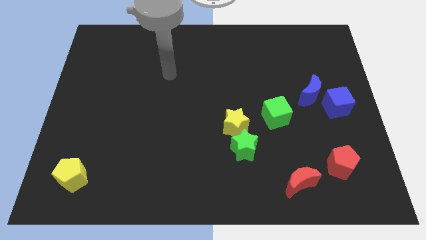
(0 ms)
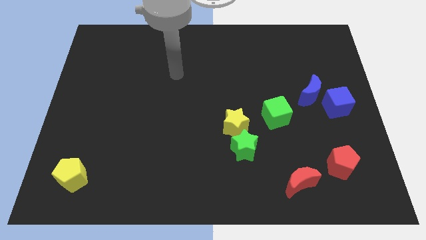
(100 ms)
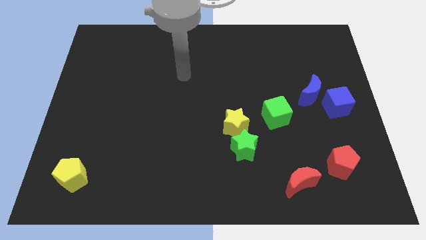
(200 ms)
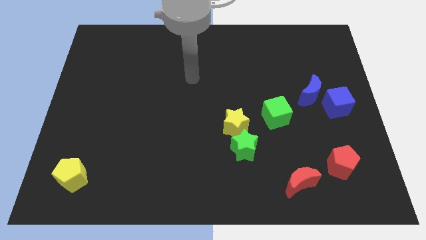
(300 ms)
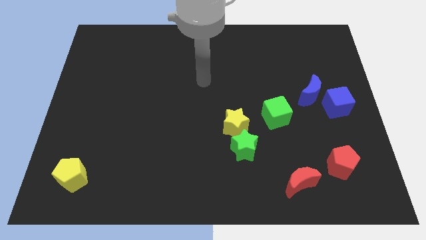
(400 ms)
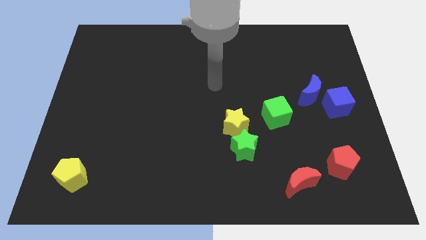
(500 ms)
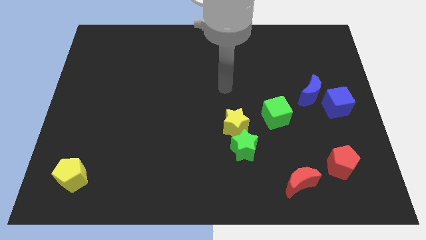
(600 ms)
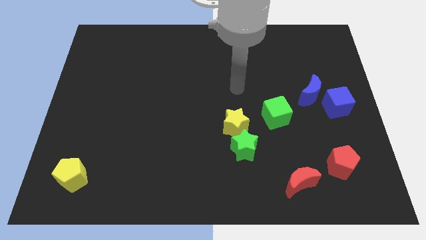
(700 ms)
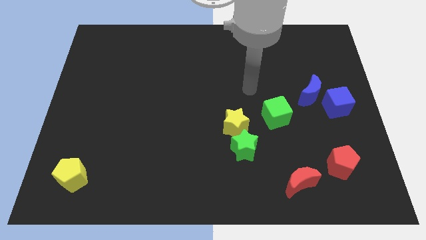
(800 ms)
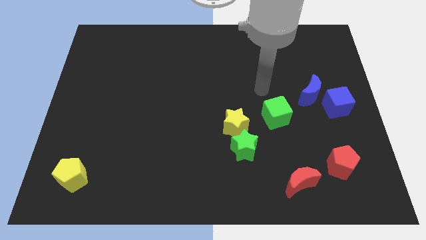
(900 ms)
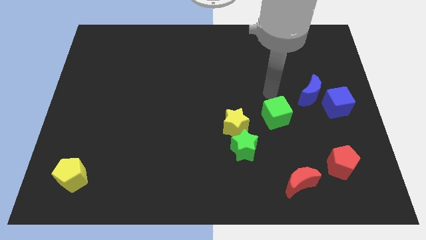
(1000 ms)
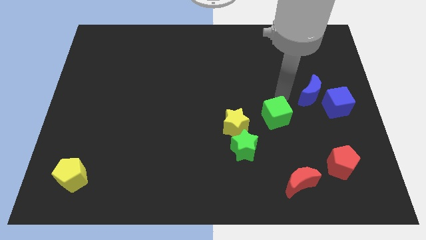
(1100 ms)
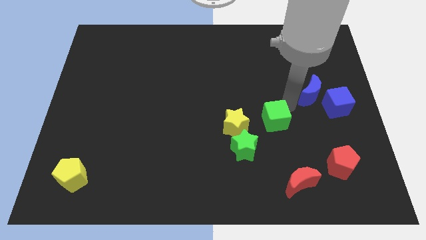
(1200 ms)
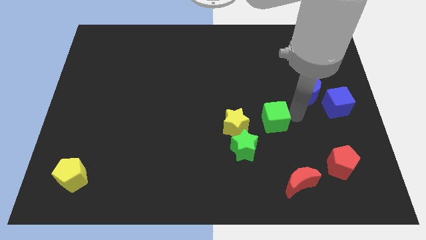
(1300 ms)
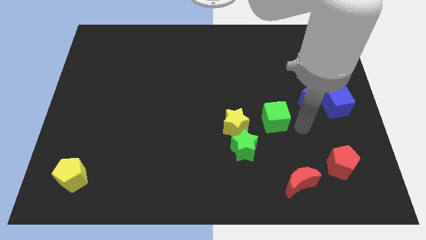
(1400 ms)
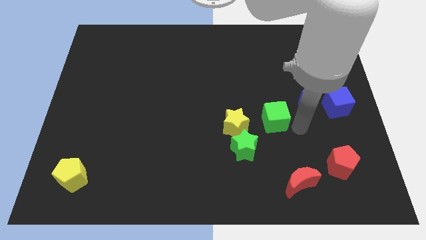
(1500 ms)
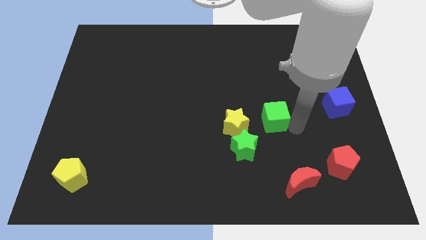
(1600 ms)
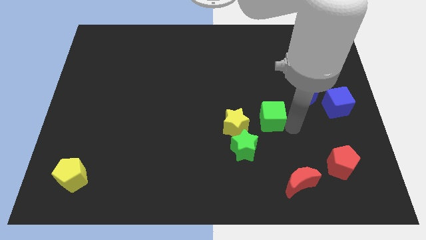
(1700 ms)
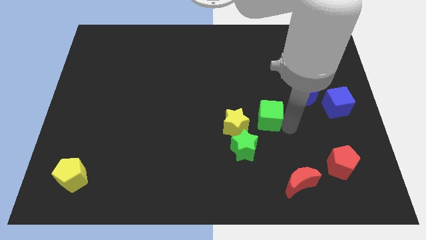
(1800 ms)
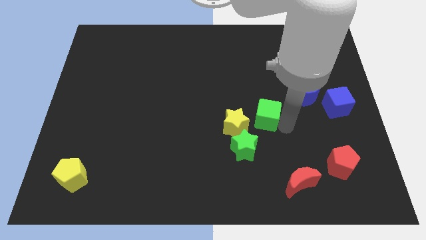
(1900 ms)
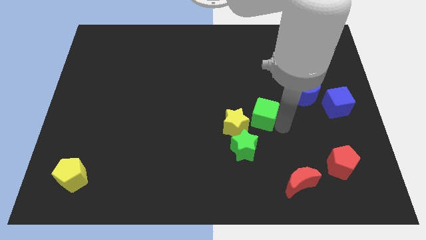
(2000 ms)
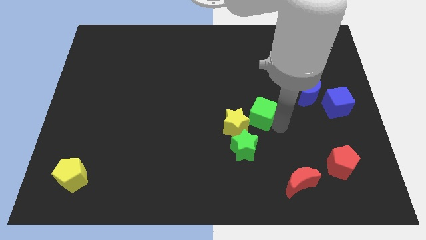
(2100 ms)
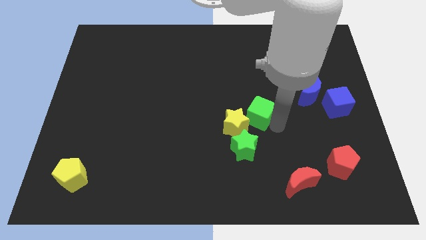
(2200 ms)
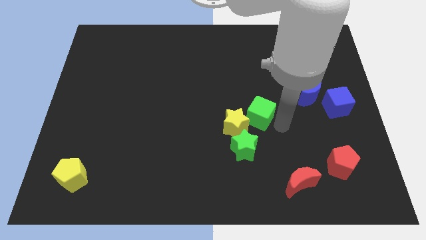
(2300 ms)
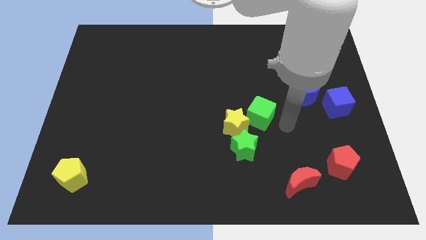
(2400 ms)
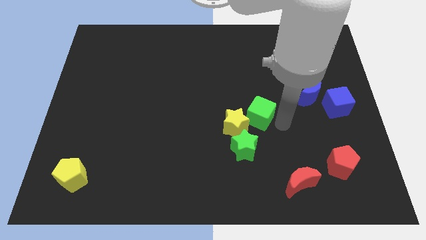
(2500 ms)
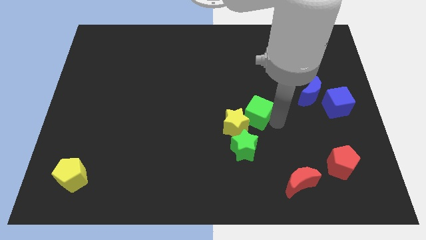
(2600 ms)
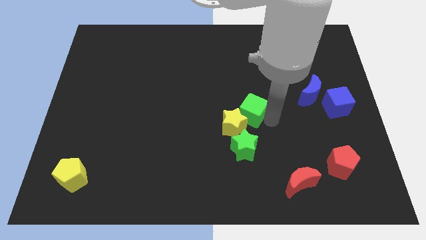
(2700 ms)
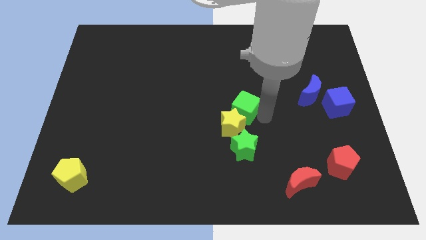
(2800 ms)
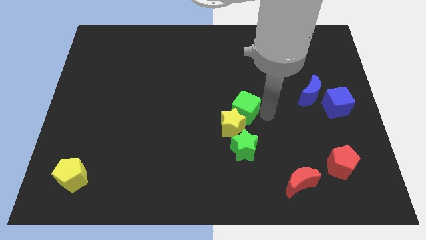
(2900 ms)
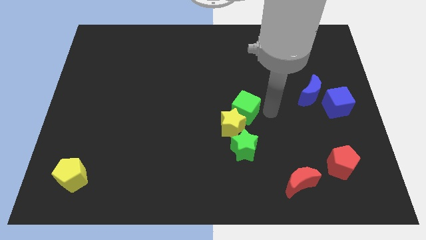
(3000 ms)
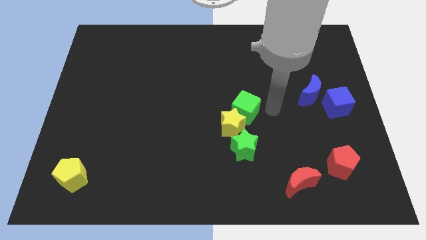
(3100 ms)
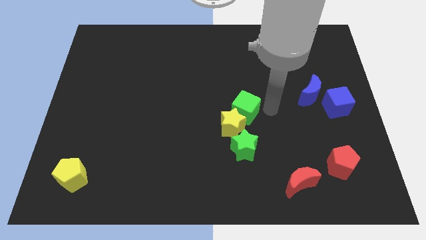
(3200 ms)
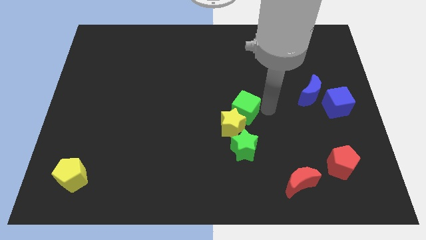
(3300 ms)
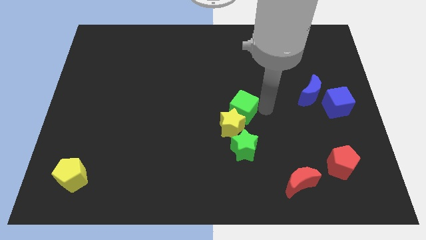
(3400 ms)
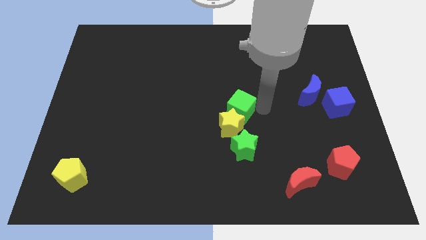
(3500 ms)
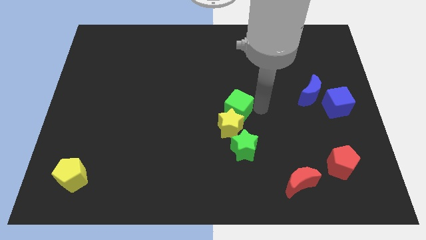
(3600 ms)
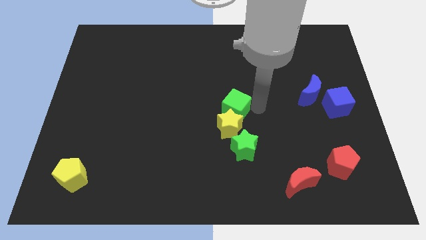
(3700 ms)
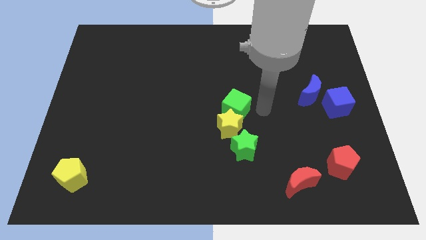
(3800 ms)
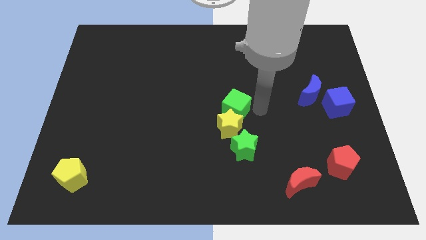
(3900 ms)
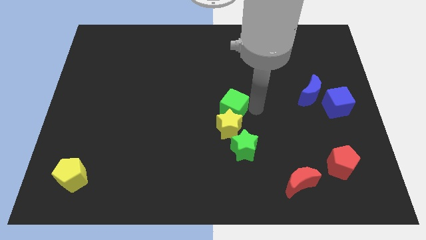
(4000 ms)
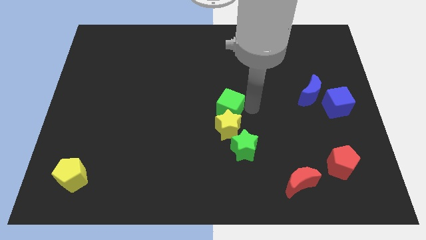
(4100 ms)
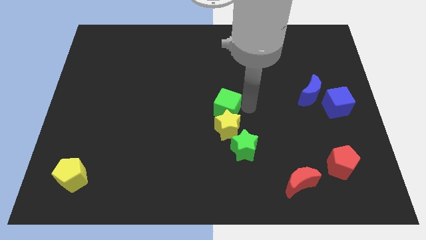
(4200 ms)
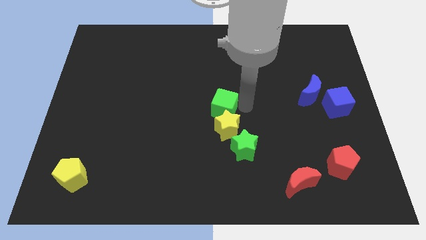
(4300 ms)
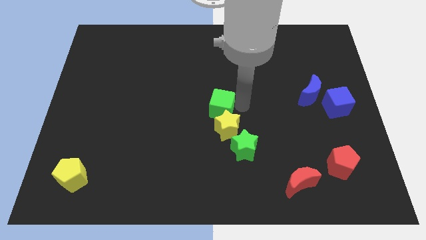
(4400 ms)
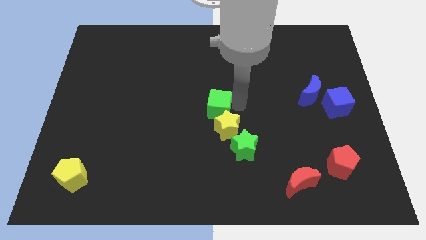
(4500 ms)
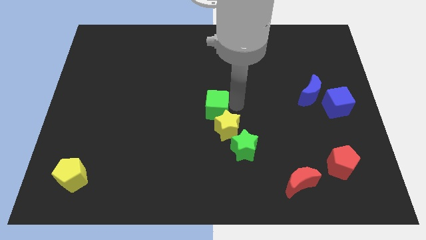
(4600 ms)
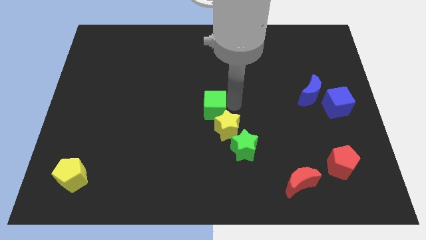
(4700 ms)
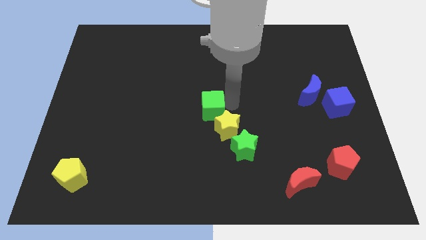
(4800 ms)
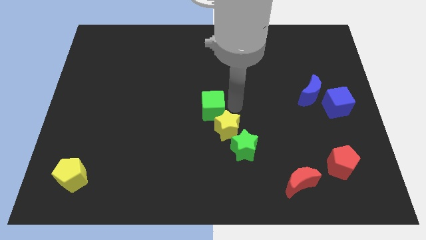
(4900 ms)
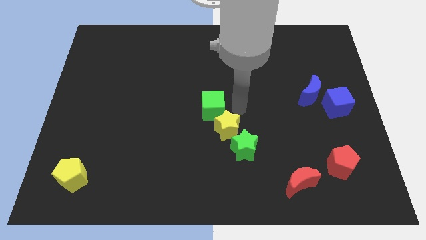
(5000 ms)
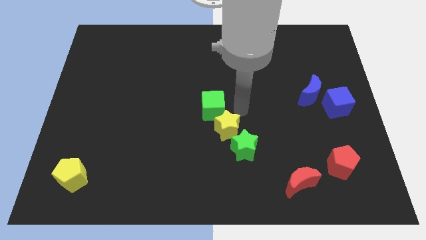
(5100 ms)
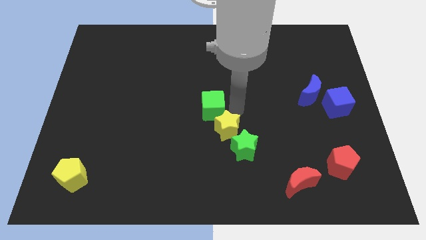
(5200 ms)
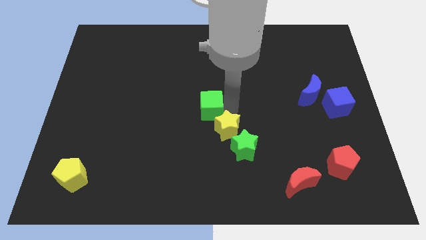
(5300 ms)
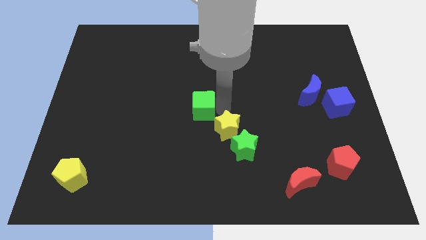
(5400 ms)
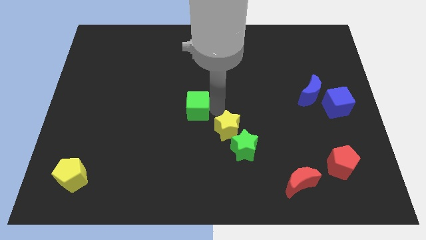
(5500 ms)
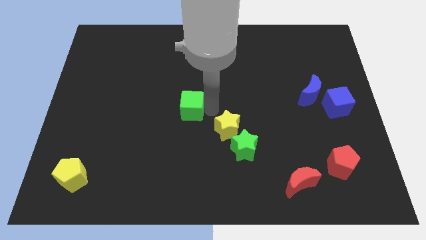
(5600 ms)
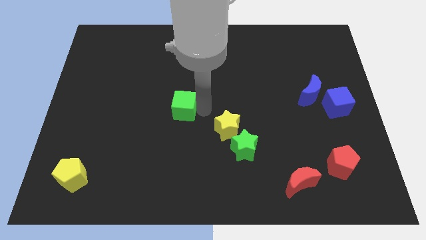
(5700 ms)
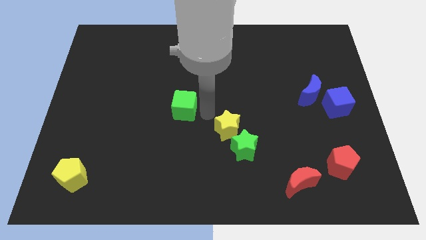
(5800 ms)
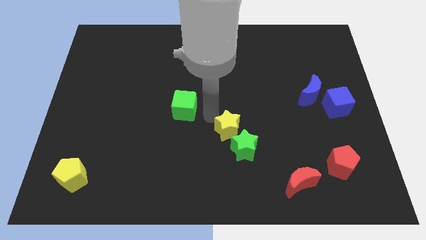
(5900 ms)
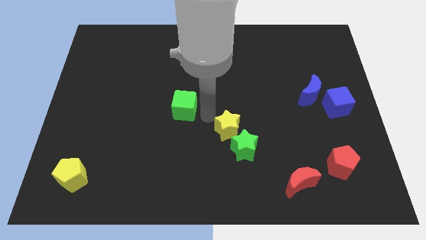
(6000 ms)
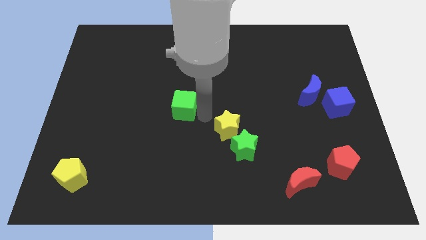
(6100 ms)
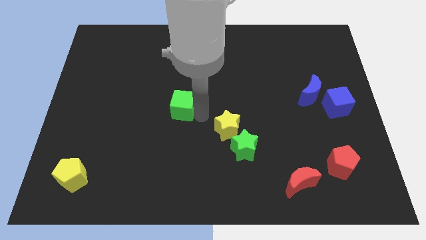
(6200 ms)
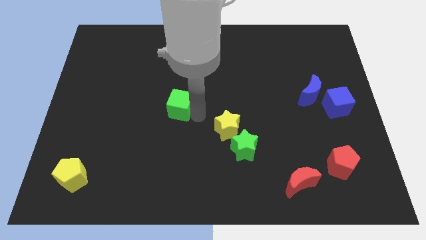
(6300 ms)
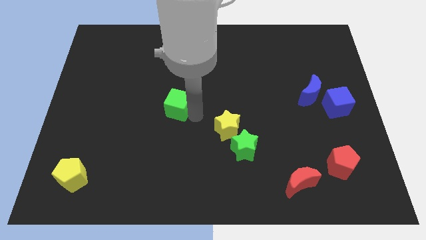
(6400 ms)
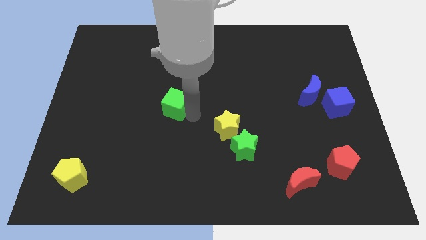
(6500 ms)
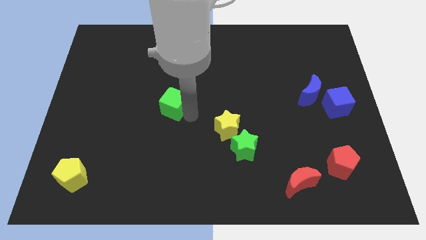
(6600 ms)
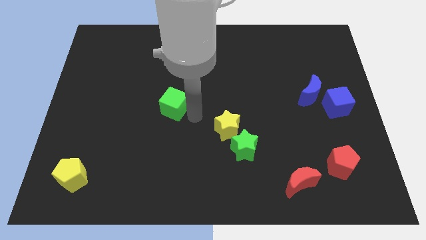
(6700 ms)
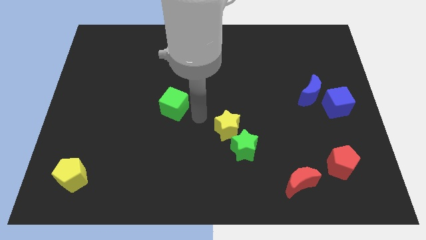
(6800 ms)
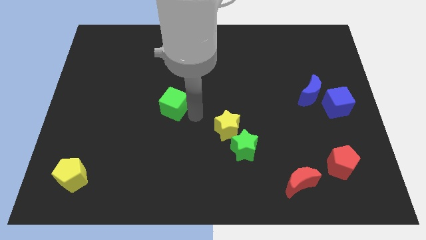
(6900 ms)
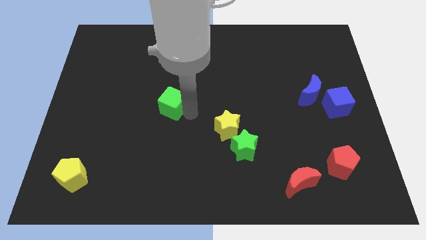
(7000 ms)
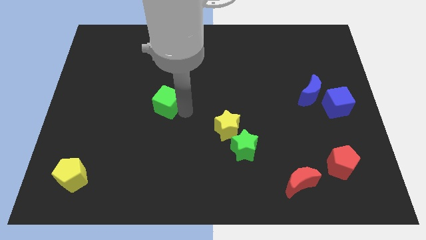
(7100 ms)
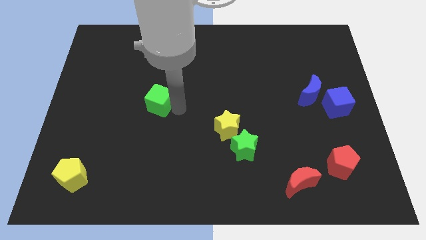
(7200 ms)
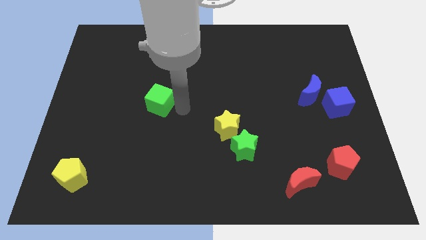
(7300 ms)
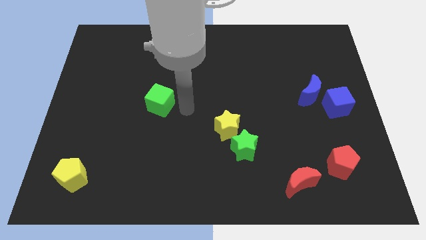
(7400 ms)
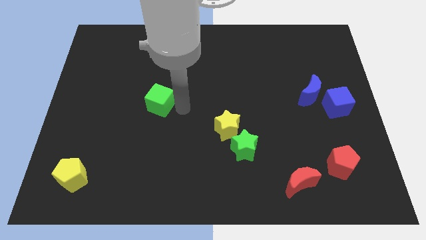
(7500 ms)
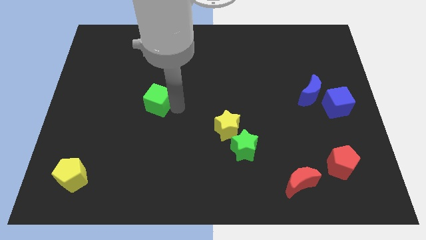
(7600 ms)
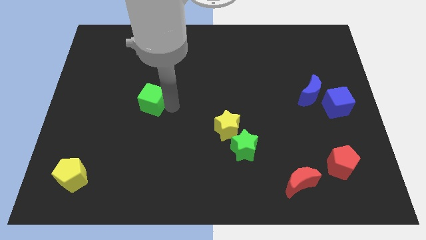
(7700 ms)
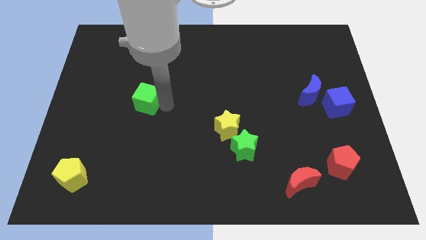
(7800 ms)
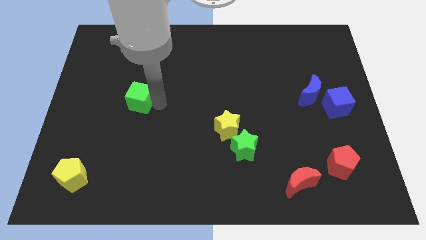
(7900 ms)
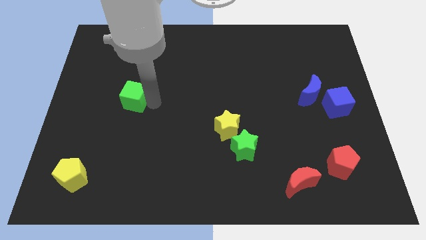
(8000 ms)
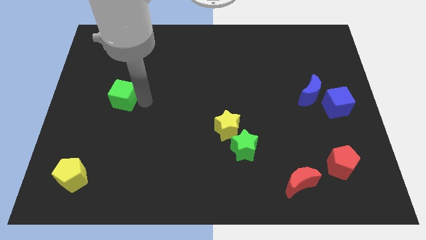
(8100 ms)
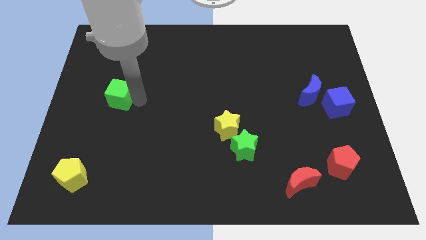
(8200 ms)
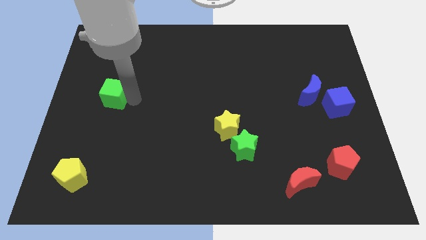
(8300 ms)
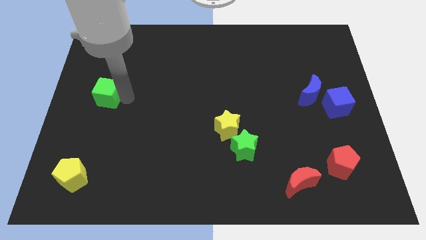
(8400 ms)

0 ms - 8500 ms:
push the green cube to the left side
